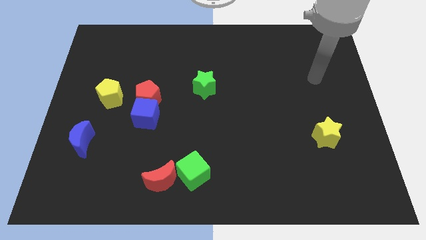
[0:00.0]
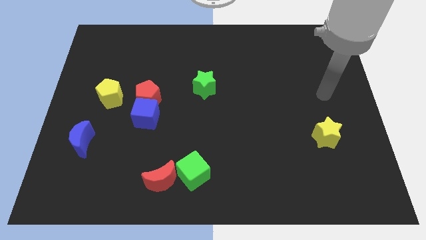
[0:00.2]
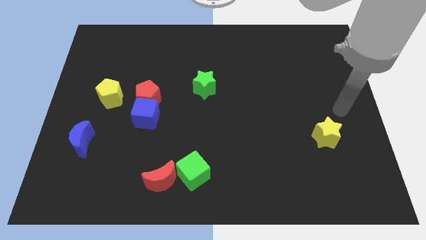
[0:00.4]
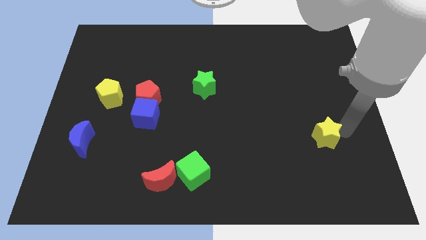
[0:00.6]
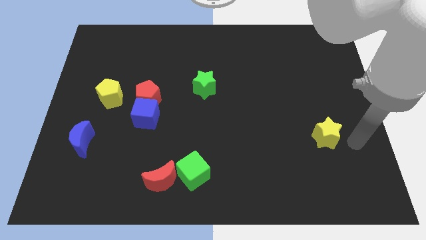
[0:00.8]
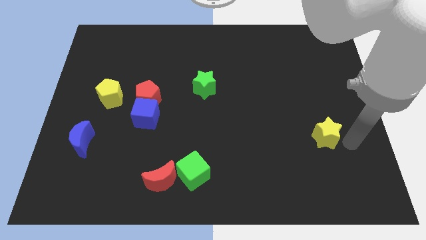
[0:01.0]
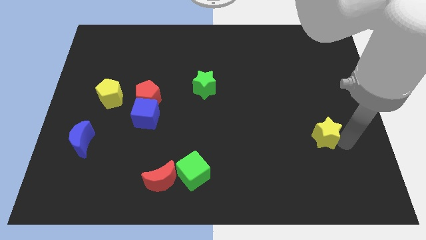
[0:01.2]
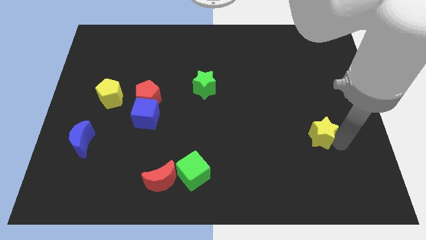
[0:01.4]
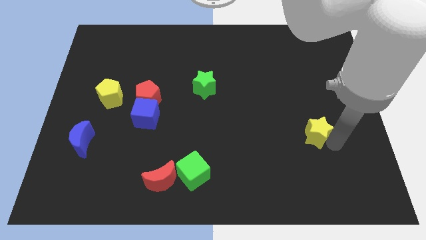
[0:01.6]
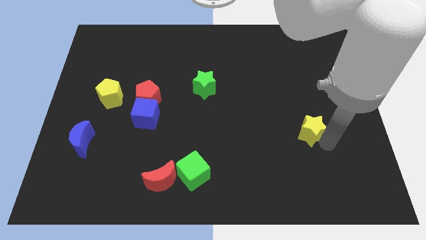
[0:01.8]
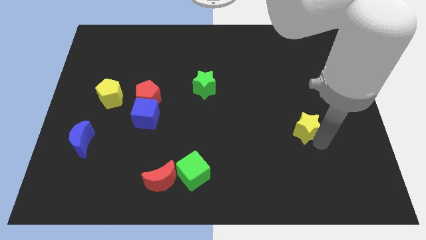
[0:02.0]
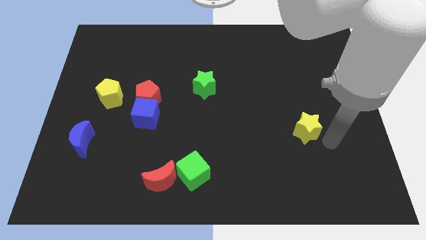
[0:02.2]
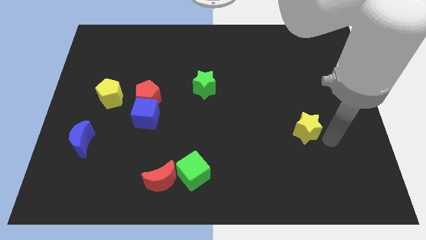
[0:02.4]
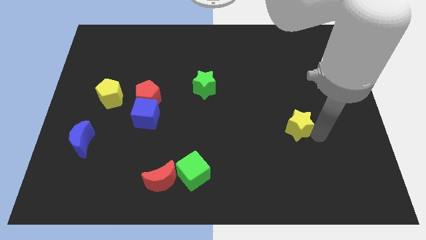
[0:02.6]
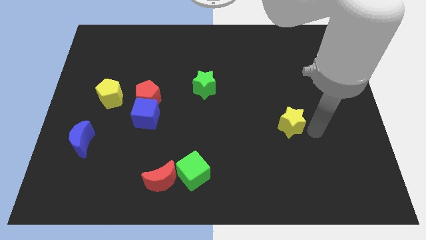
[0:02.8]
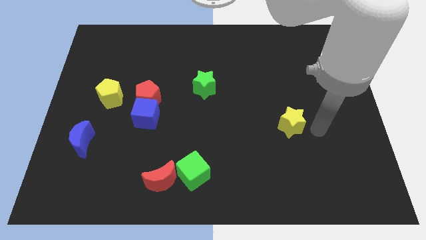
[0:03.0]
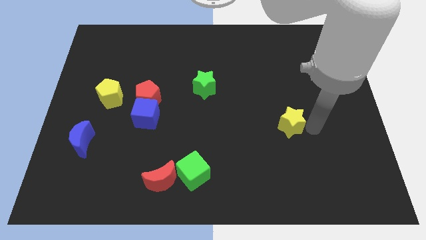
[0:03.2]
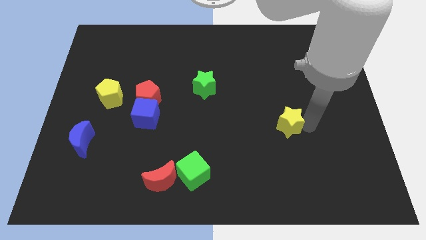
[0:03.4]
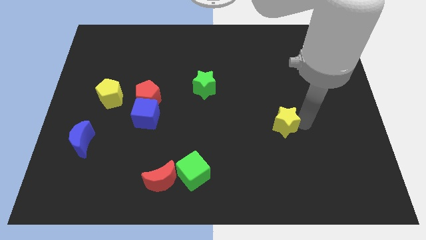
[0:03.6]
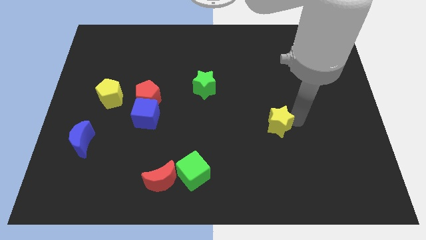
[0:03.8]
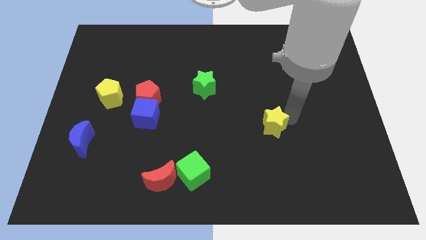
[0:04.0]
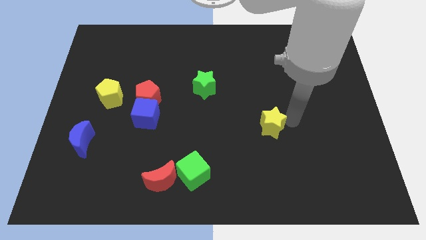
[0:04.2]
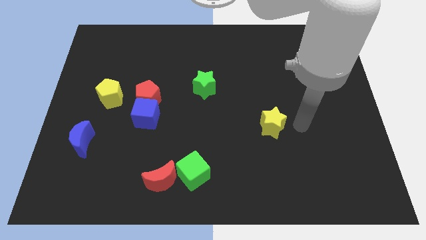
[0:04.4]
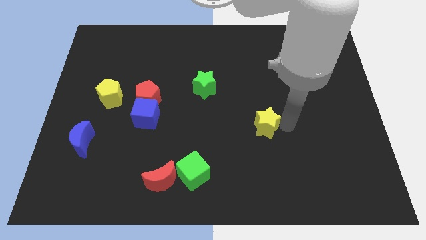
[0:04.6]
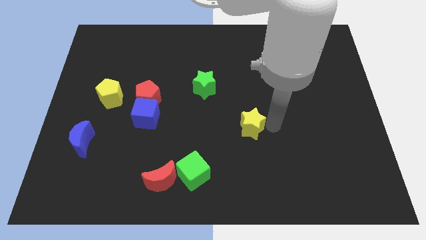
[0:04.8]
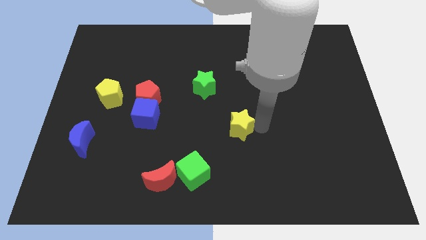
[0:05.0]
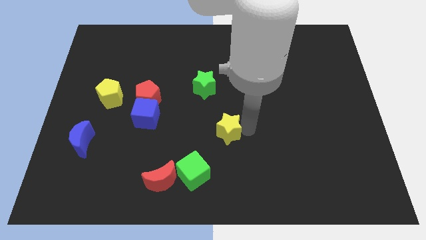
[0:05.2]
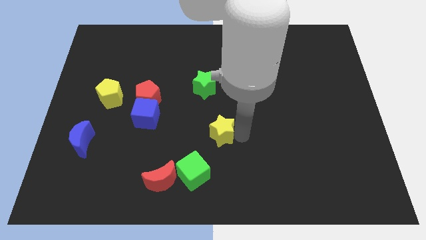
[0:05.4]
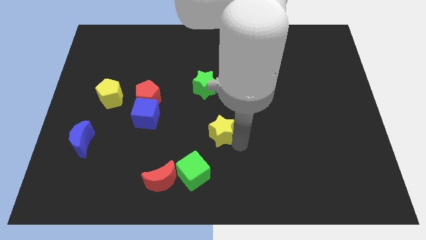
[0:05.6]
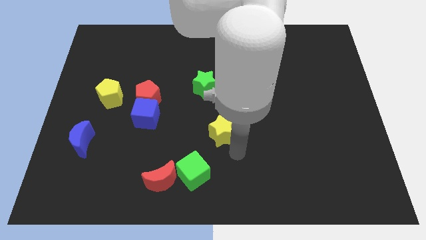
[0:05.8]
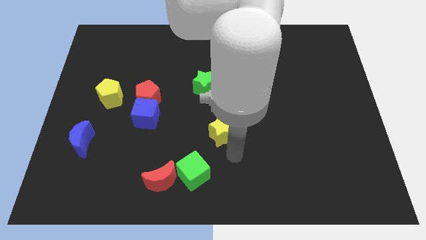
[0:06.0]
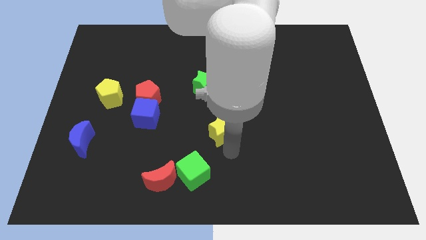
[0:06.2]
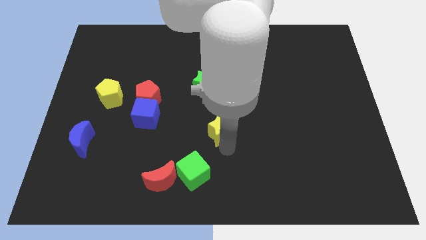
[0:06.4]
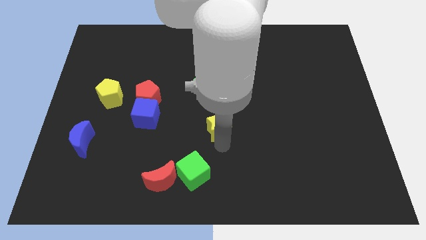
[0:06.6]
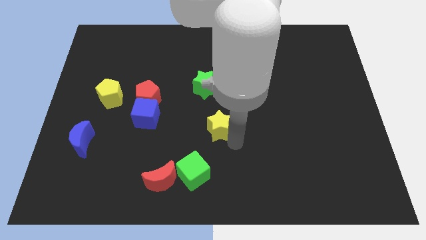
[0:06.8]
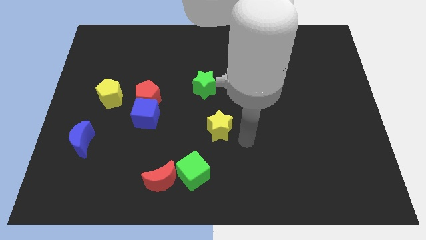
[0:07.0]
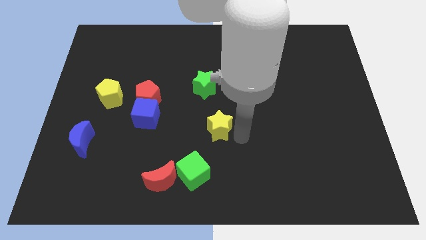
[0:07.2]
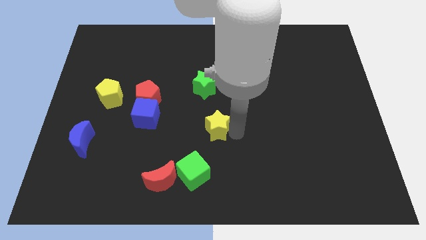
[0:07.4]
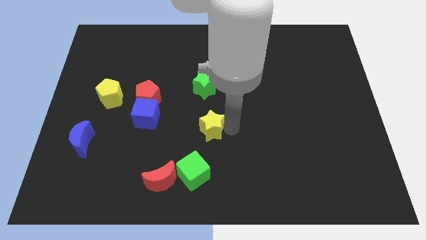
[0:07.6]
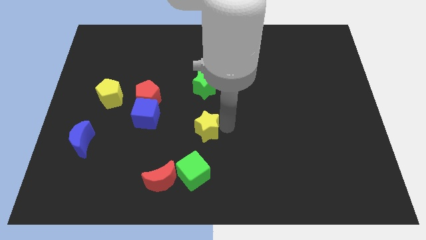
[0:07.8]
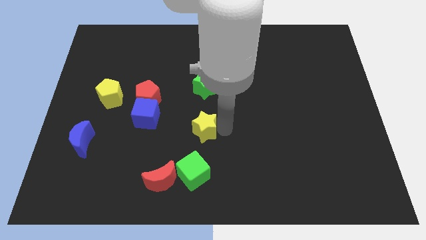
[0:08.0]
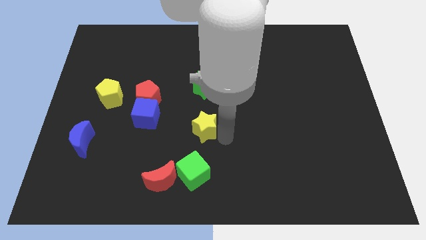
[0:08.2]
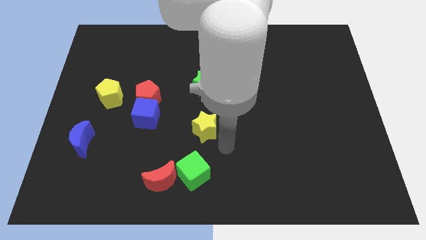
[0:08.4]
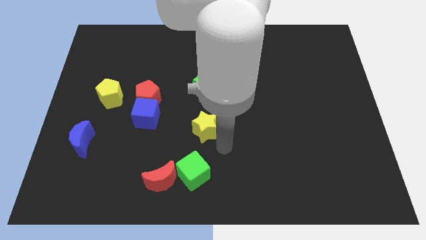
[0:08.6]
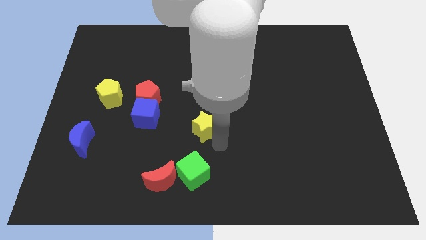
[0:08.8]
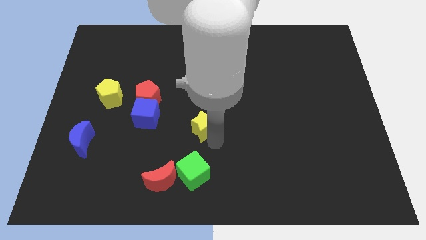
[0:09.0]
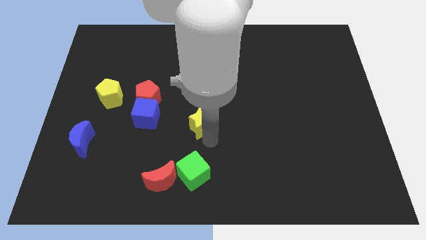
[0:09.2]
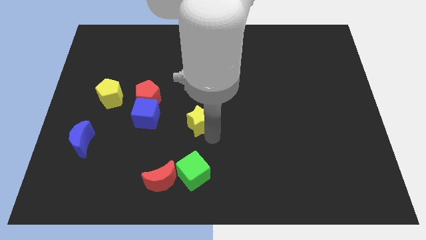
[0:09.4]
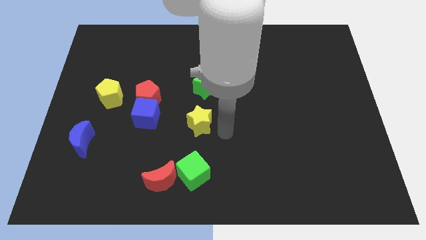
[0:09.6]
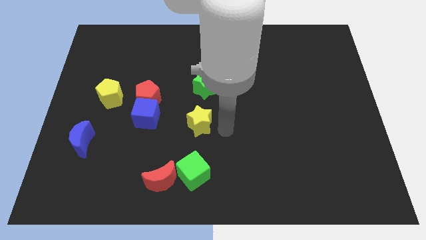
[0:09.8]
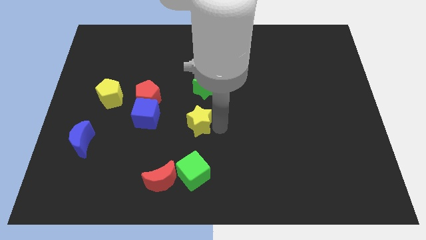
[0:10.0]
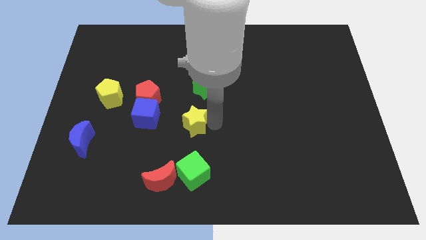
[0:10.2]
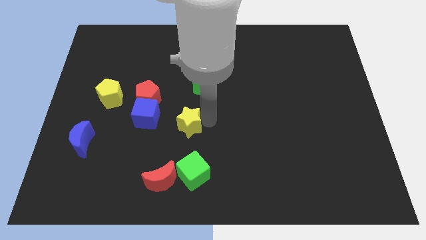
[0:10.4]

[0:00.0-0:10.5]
slide the yellow star diagonally down and to the right of the red pentagon

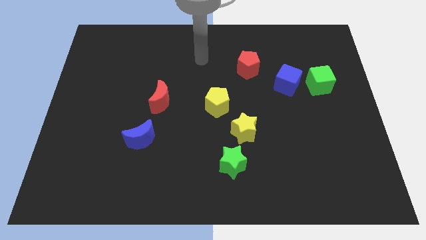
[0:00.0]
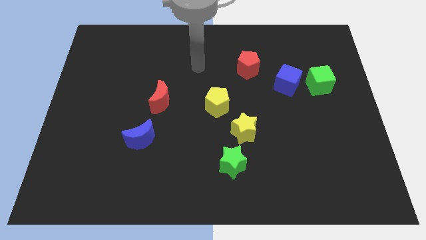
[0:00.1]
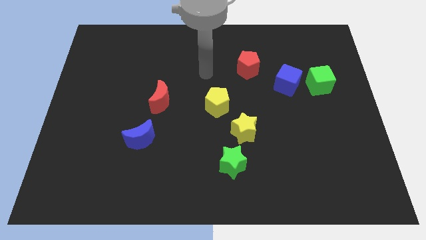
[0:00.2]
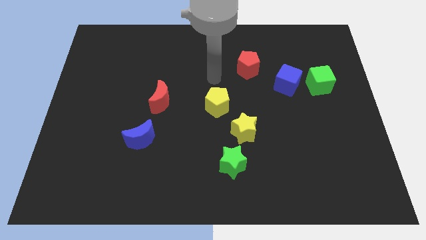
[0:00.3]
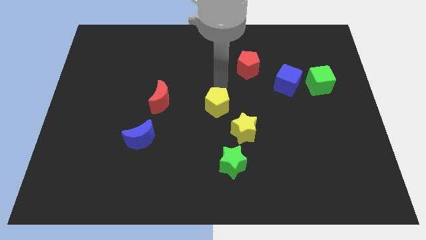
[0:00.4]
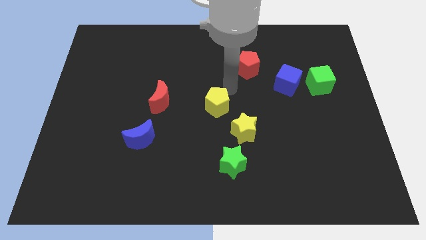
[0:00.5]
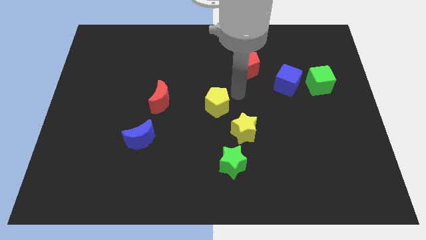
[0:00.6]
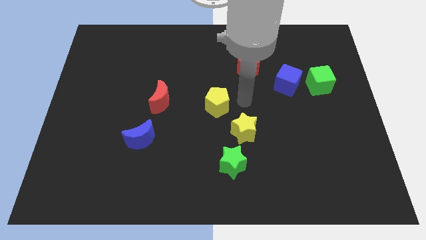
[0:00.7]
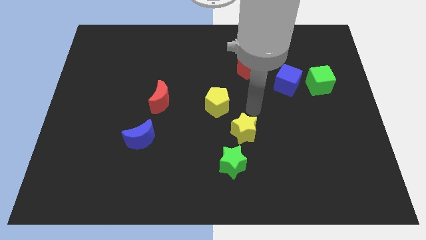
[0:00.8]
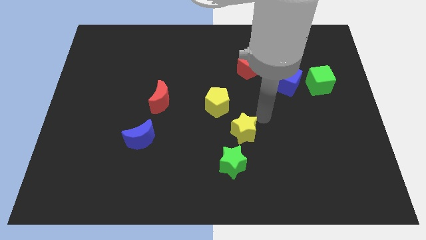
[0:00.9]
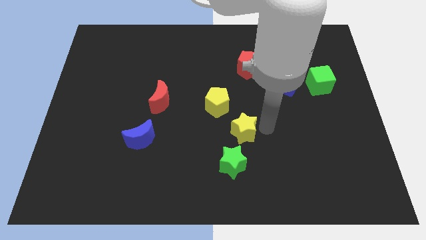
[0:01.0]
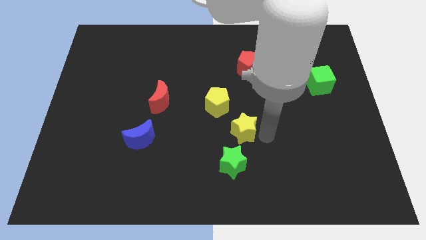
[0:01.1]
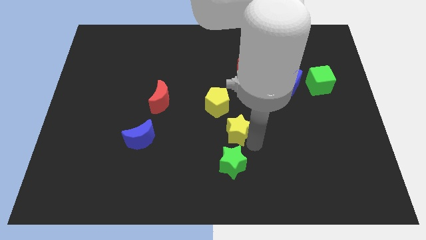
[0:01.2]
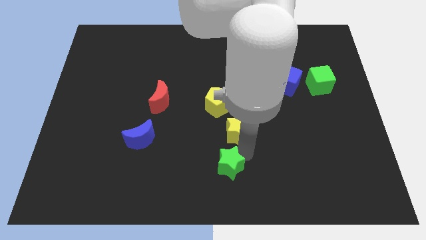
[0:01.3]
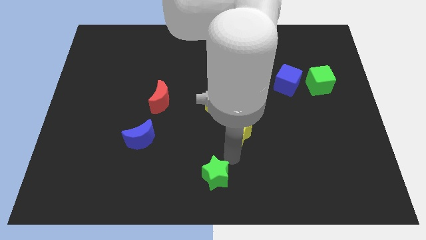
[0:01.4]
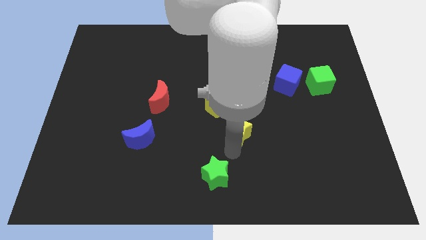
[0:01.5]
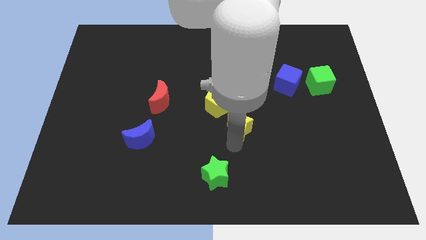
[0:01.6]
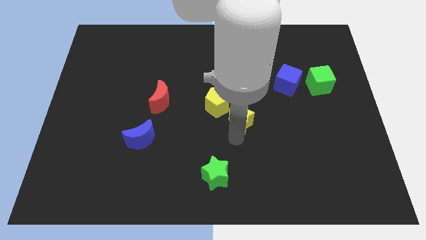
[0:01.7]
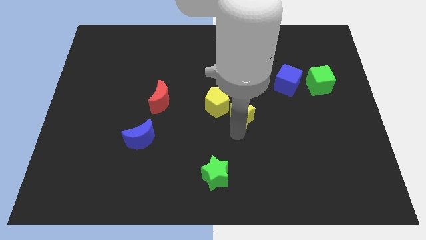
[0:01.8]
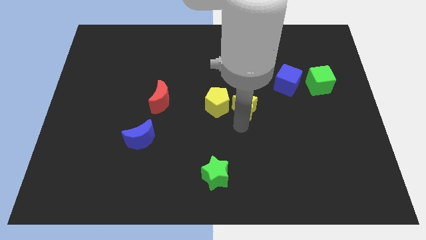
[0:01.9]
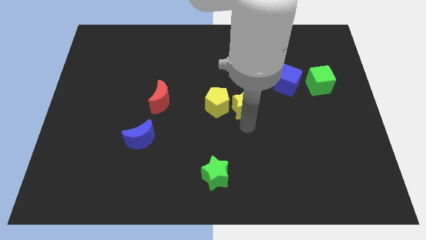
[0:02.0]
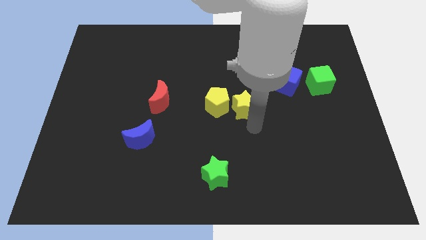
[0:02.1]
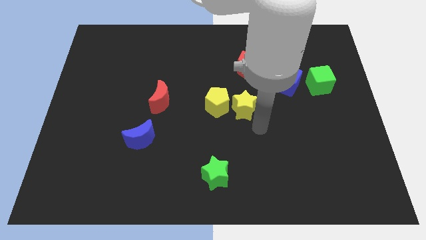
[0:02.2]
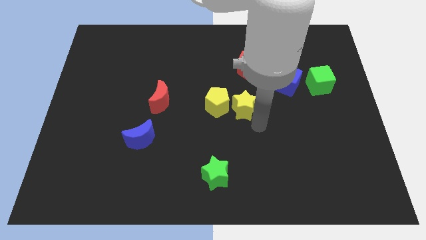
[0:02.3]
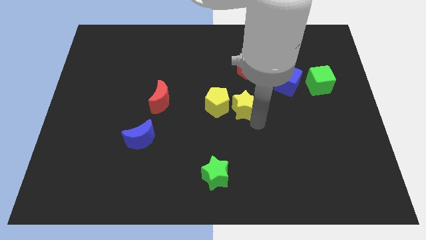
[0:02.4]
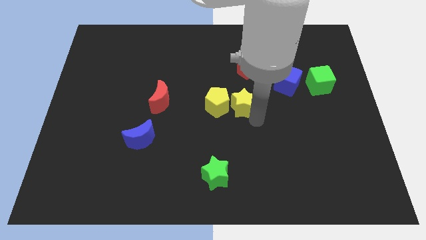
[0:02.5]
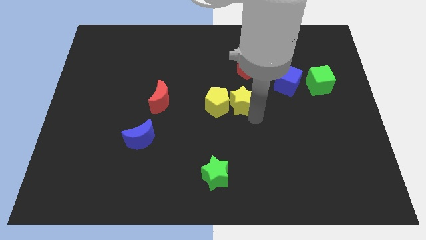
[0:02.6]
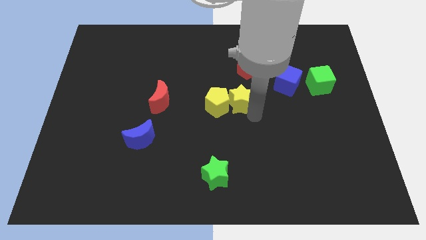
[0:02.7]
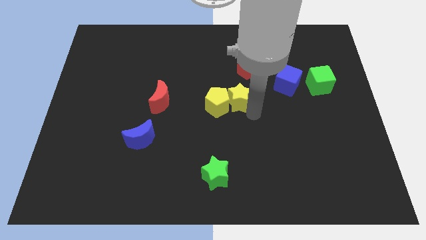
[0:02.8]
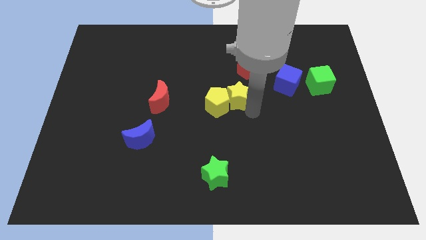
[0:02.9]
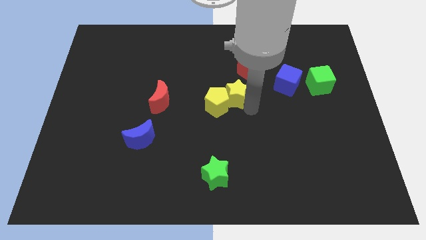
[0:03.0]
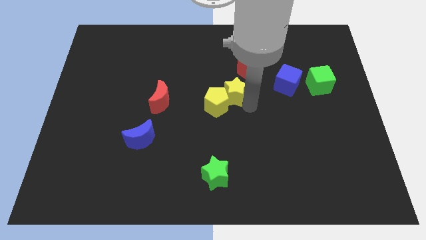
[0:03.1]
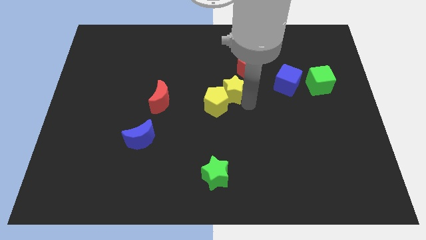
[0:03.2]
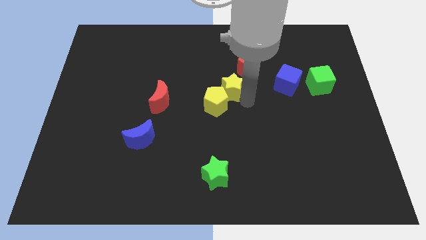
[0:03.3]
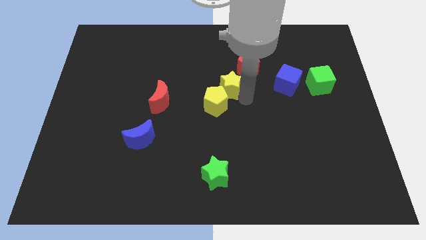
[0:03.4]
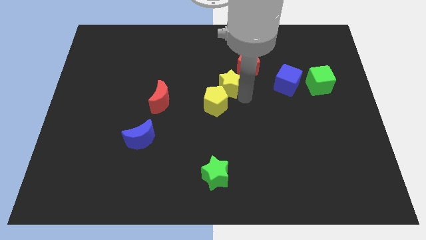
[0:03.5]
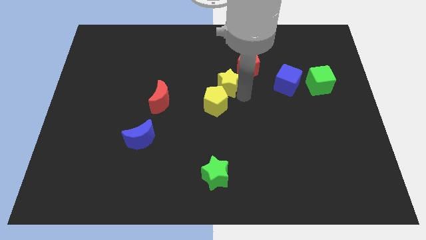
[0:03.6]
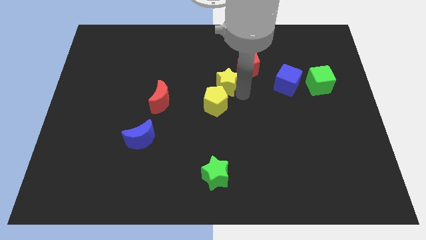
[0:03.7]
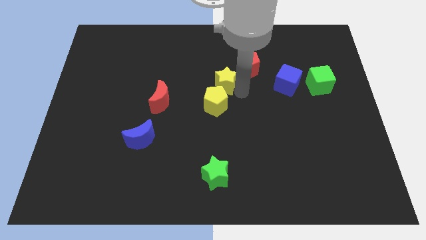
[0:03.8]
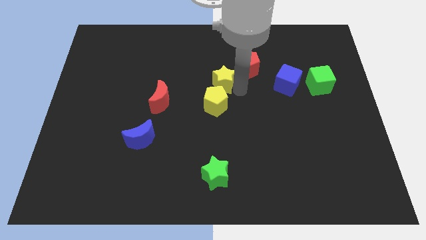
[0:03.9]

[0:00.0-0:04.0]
slide the yellow star just left of the red pentagon
